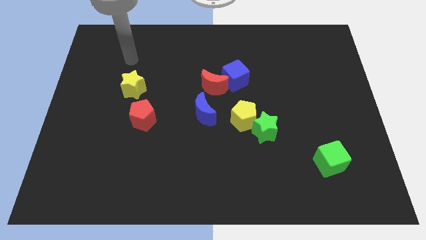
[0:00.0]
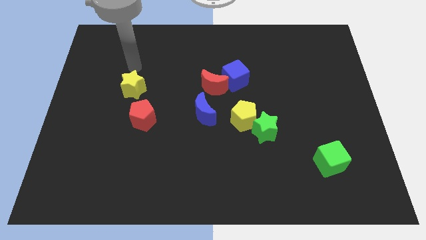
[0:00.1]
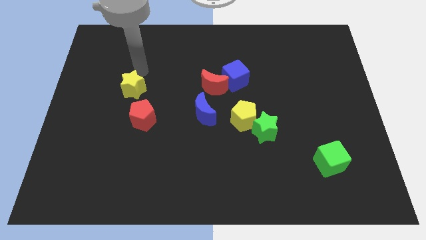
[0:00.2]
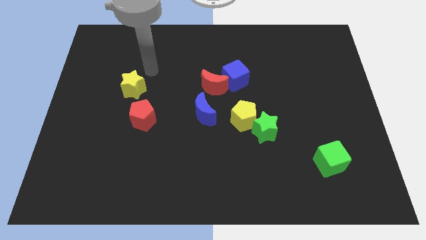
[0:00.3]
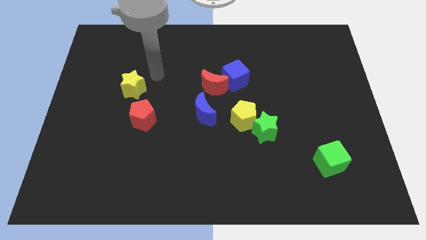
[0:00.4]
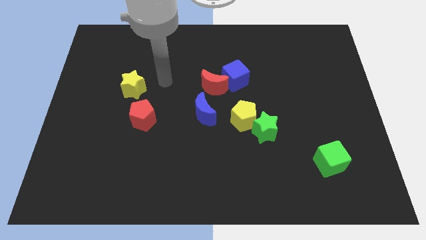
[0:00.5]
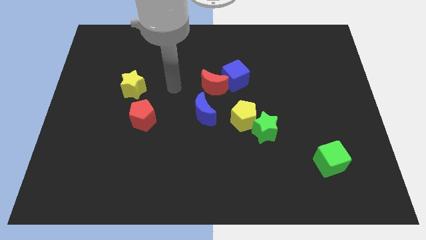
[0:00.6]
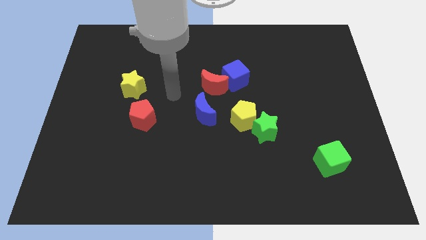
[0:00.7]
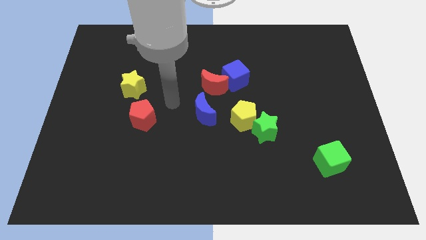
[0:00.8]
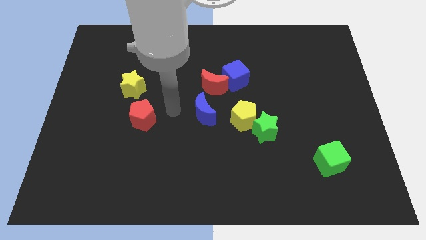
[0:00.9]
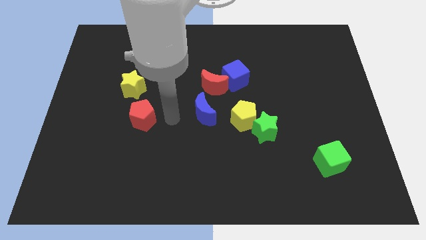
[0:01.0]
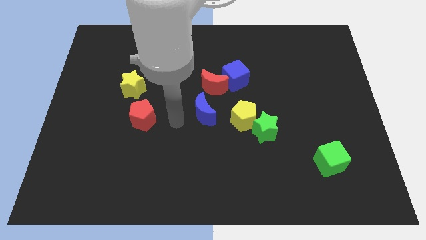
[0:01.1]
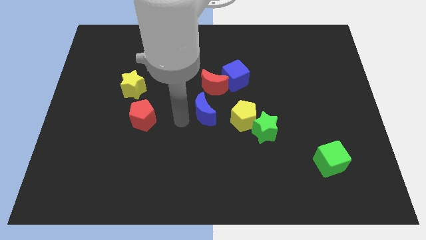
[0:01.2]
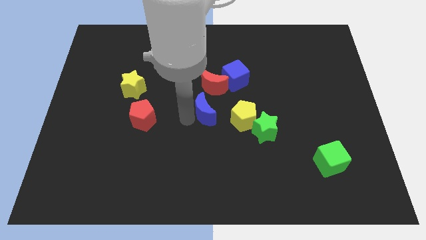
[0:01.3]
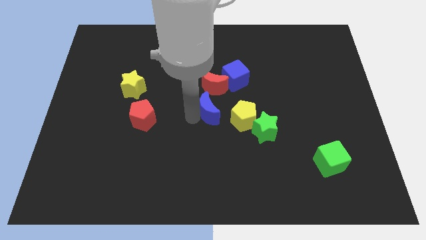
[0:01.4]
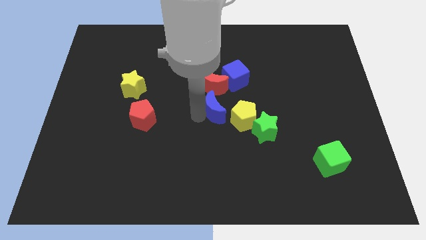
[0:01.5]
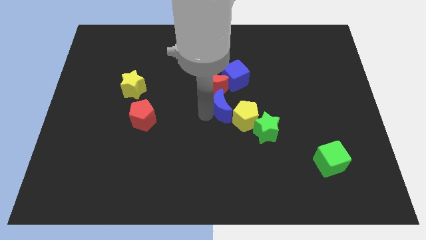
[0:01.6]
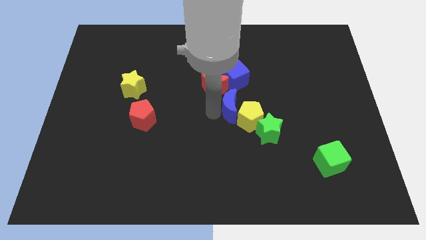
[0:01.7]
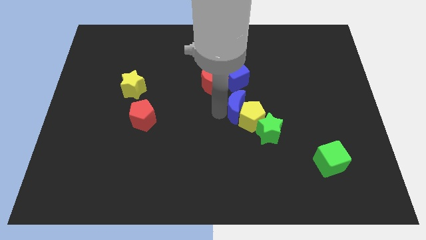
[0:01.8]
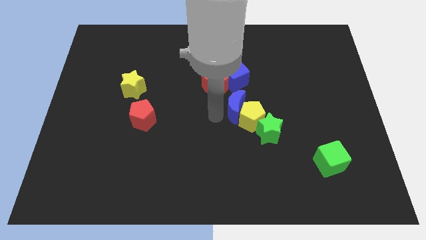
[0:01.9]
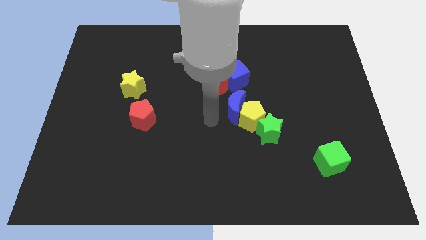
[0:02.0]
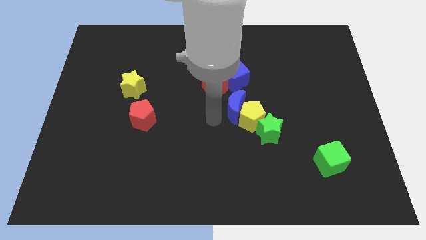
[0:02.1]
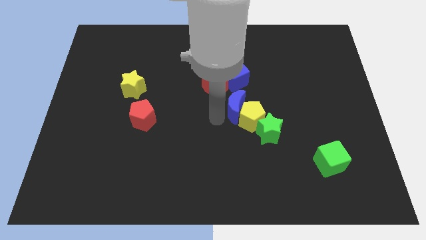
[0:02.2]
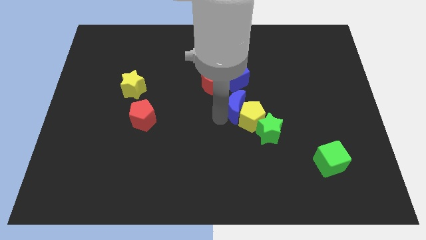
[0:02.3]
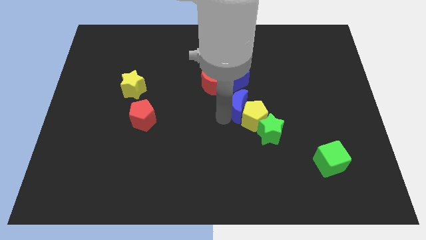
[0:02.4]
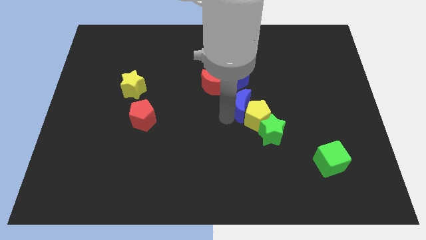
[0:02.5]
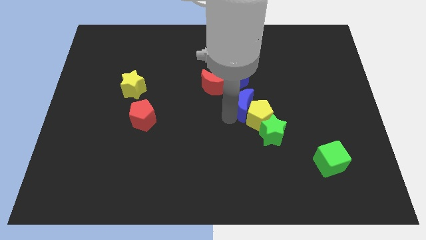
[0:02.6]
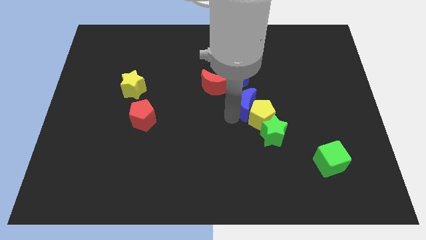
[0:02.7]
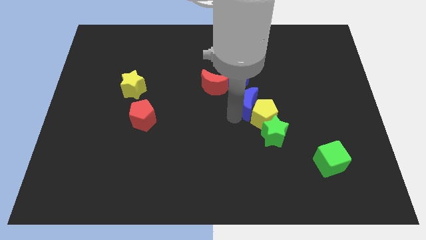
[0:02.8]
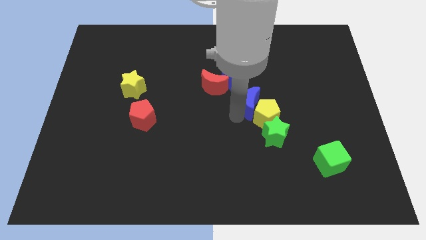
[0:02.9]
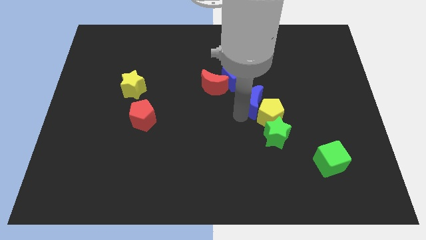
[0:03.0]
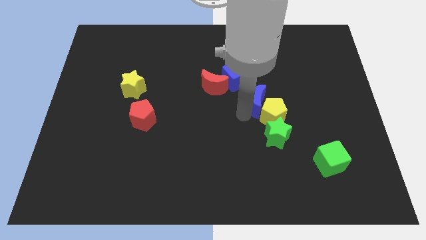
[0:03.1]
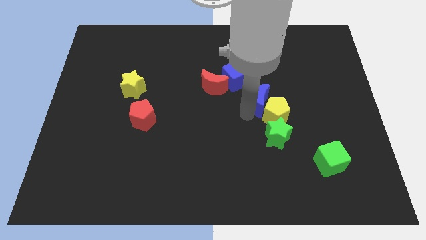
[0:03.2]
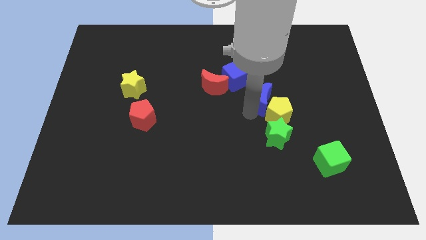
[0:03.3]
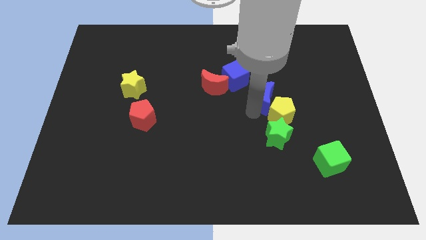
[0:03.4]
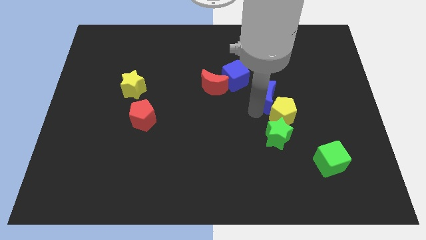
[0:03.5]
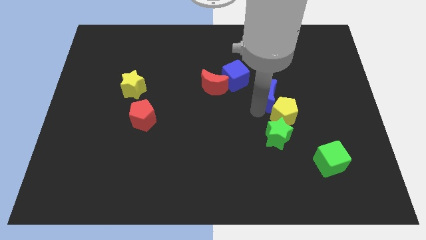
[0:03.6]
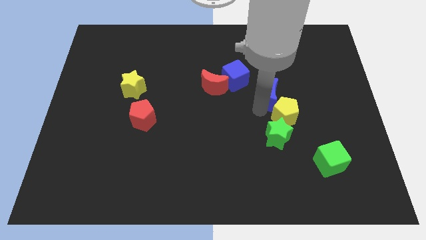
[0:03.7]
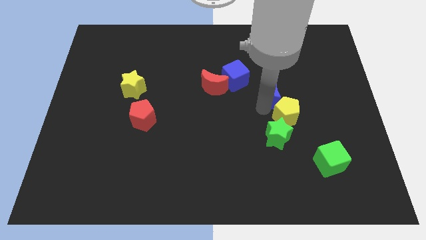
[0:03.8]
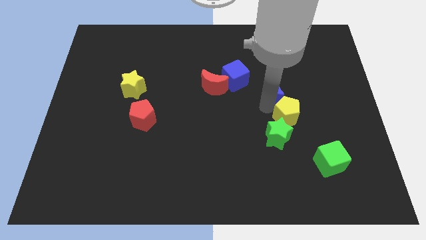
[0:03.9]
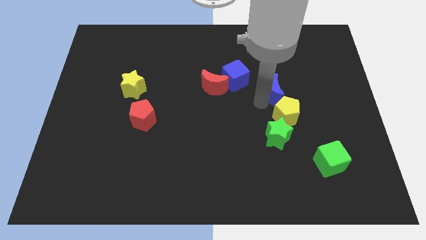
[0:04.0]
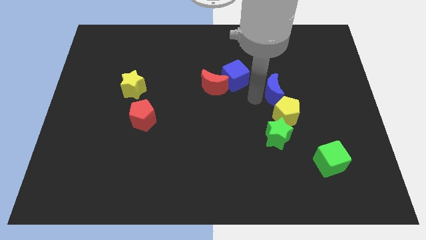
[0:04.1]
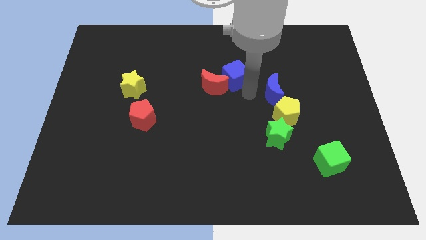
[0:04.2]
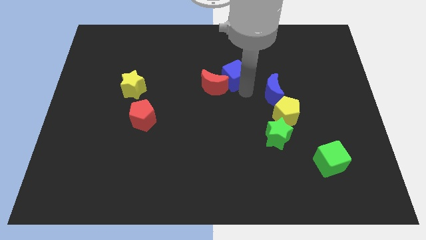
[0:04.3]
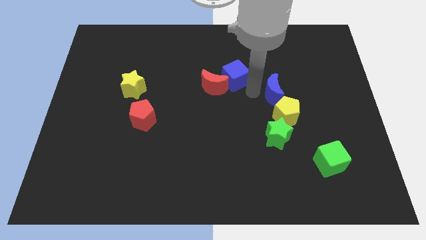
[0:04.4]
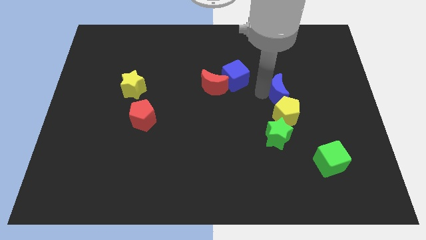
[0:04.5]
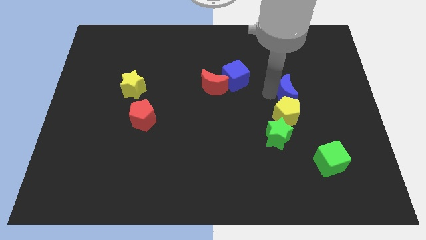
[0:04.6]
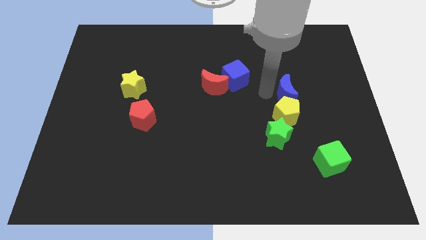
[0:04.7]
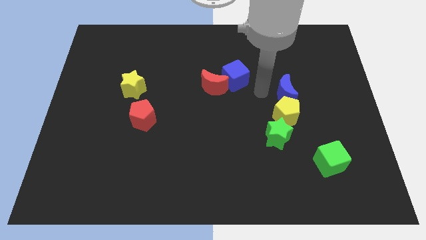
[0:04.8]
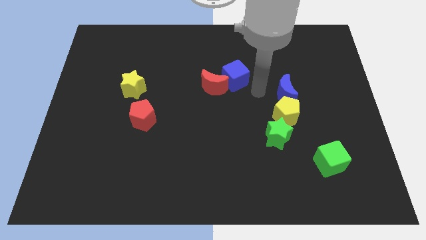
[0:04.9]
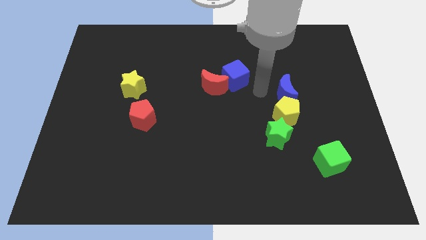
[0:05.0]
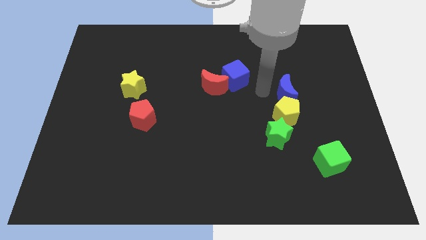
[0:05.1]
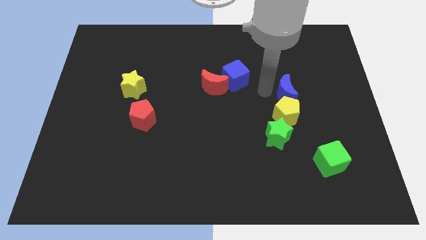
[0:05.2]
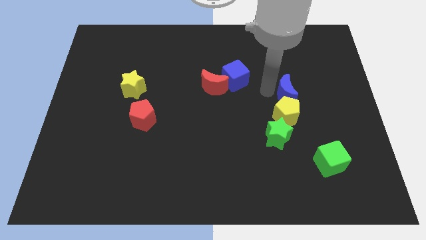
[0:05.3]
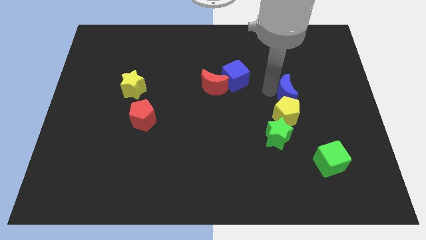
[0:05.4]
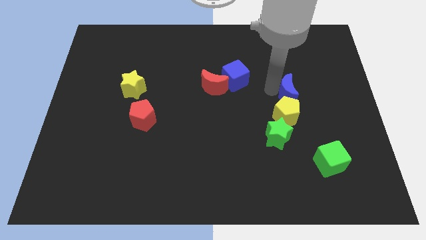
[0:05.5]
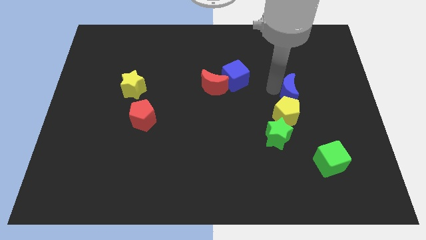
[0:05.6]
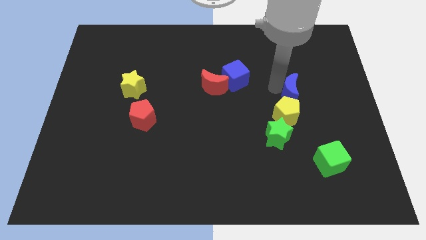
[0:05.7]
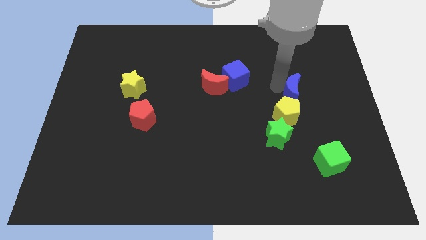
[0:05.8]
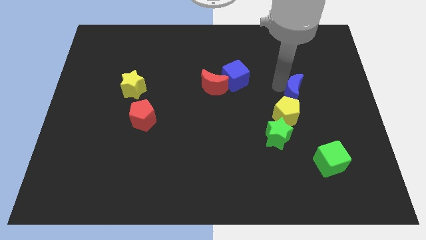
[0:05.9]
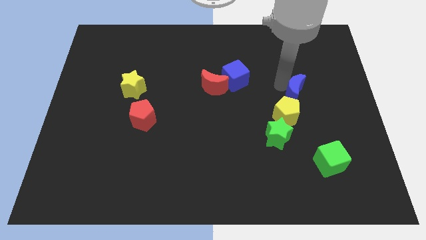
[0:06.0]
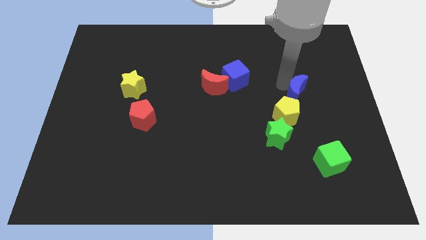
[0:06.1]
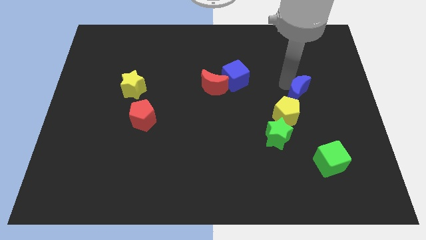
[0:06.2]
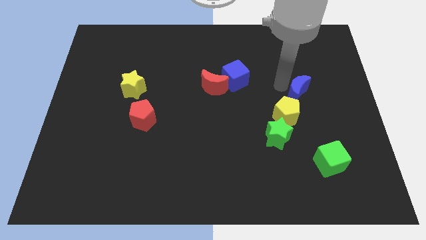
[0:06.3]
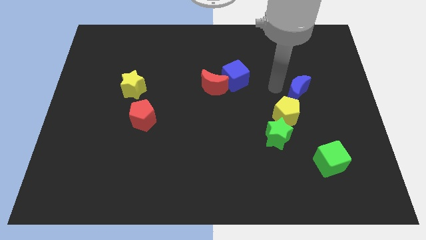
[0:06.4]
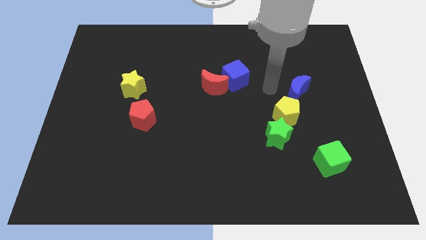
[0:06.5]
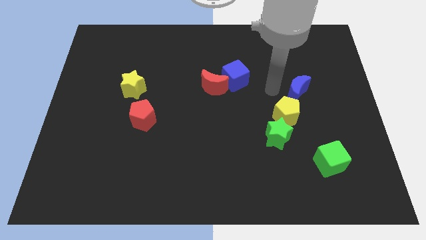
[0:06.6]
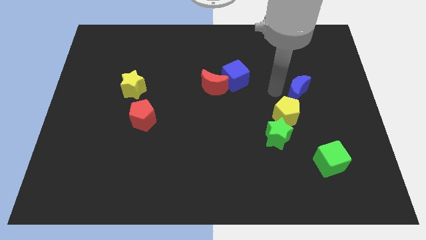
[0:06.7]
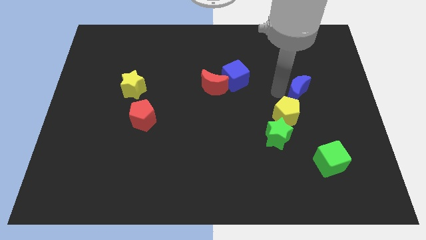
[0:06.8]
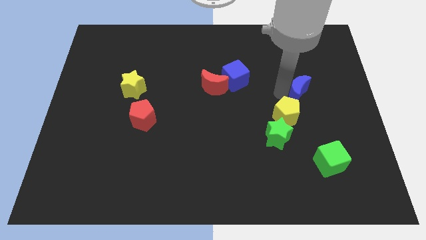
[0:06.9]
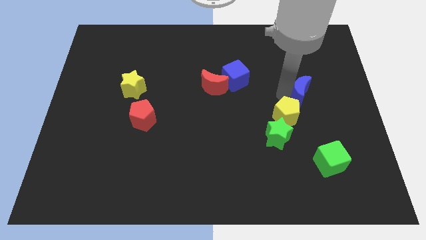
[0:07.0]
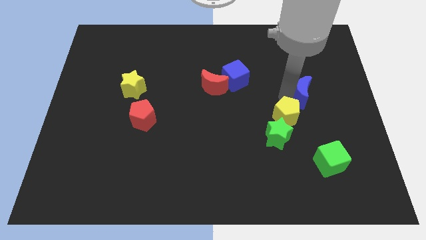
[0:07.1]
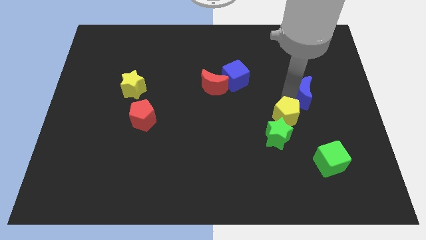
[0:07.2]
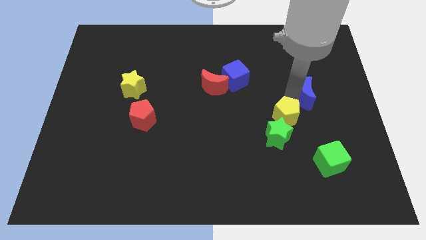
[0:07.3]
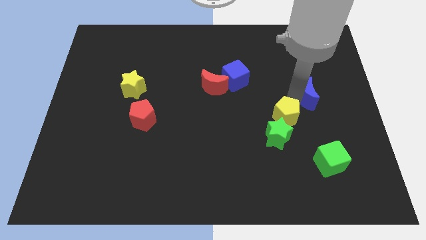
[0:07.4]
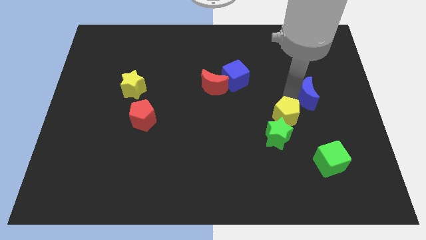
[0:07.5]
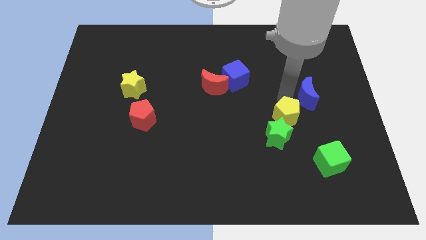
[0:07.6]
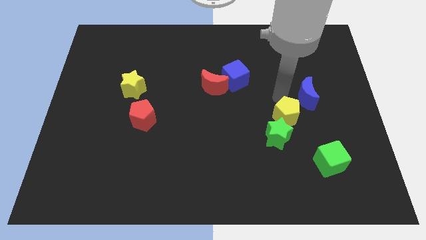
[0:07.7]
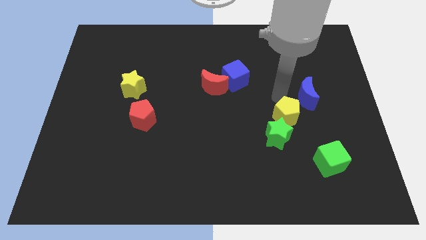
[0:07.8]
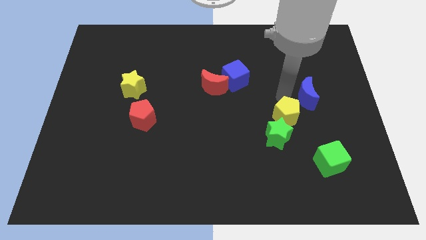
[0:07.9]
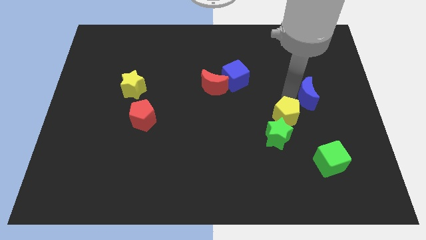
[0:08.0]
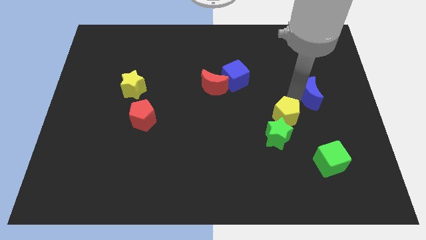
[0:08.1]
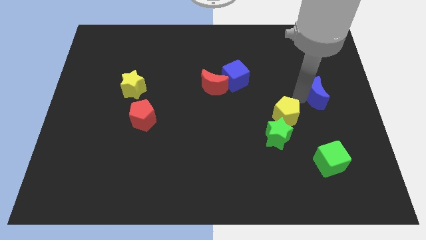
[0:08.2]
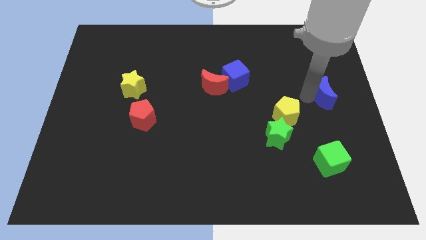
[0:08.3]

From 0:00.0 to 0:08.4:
move the blue moon to the right side
